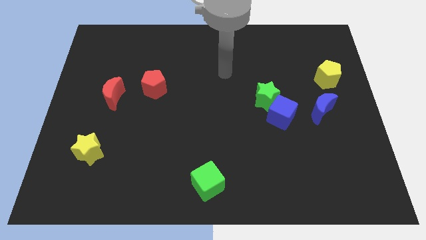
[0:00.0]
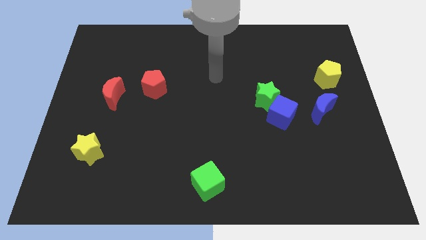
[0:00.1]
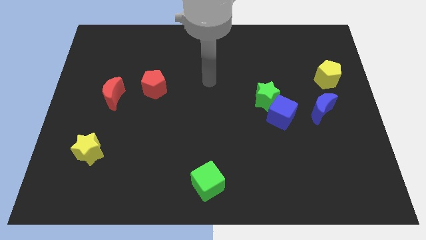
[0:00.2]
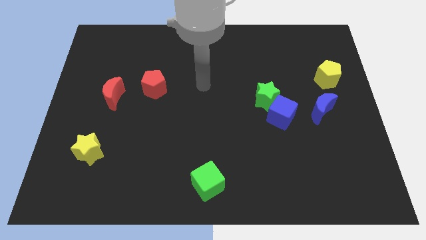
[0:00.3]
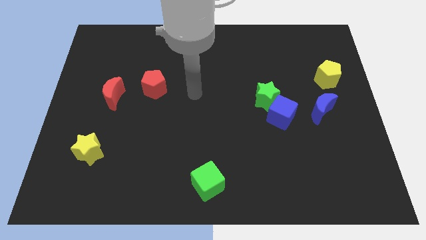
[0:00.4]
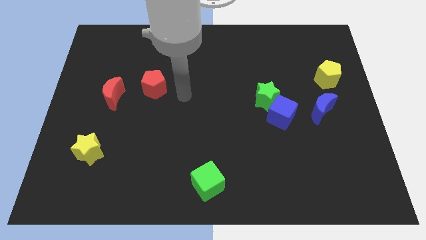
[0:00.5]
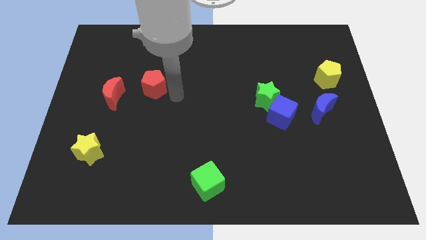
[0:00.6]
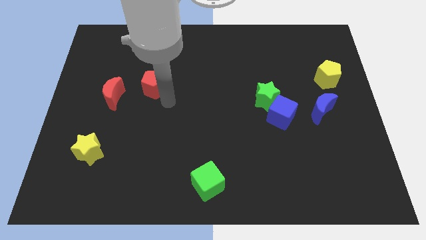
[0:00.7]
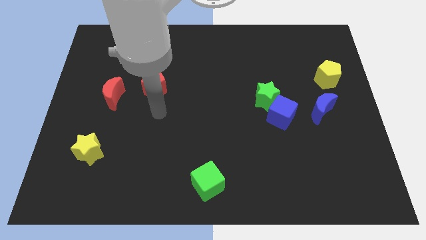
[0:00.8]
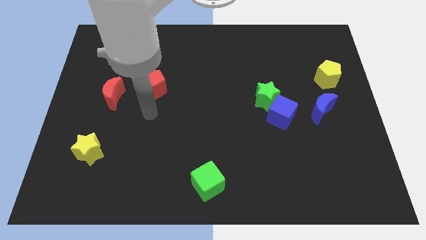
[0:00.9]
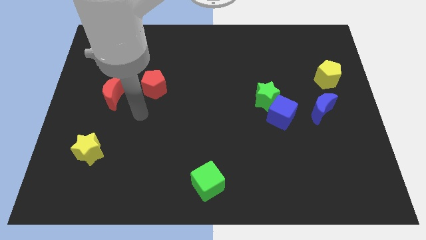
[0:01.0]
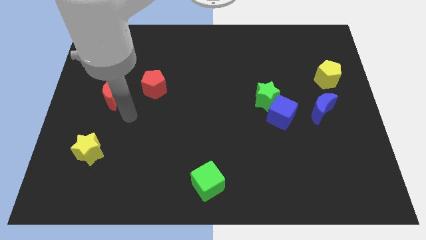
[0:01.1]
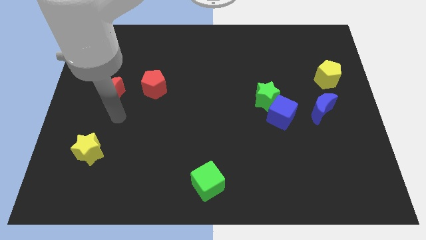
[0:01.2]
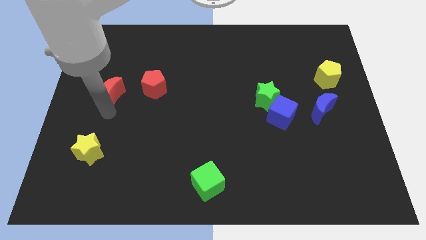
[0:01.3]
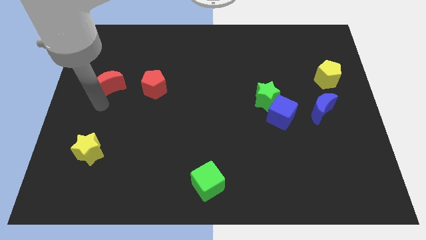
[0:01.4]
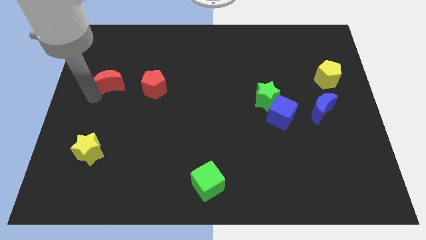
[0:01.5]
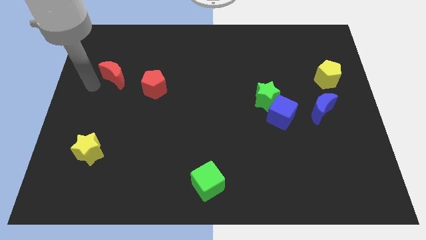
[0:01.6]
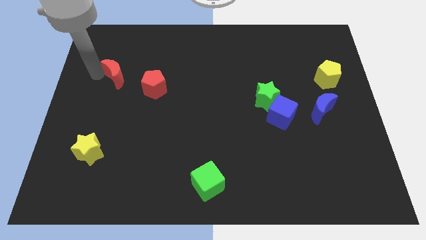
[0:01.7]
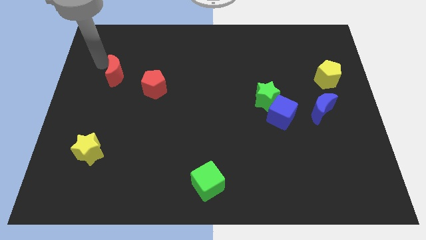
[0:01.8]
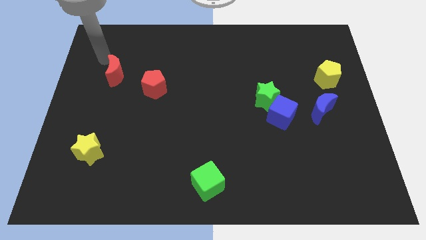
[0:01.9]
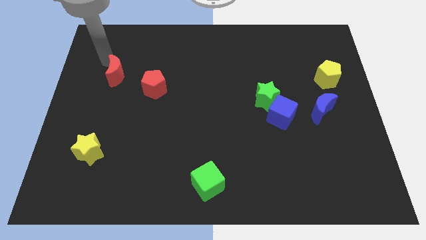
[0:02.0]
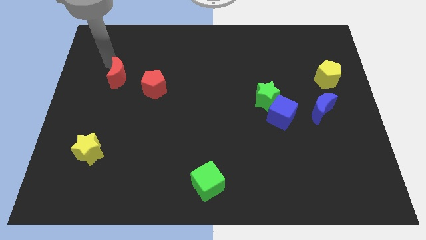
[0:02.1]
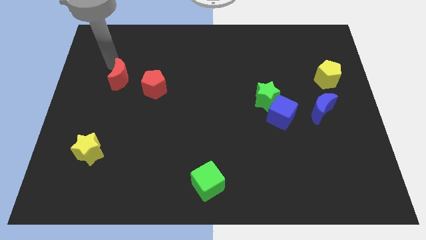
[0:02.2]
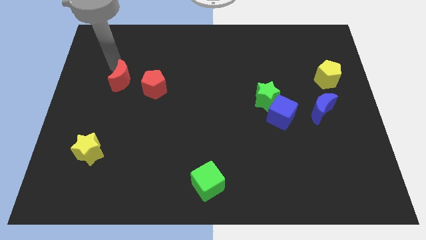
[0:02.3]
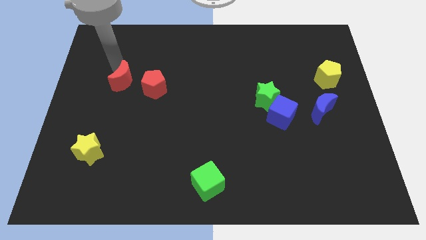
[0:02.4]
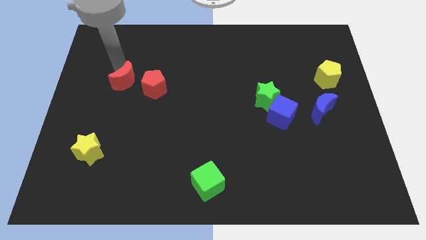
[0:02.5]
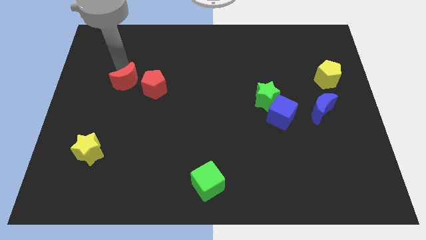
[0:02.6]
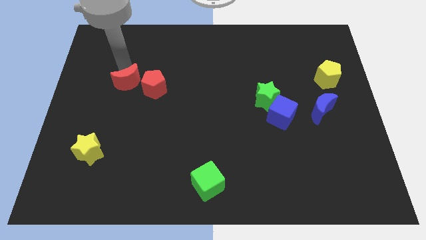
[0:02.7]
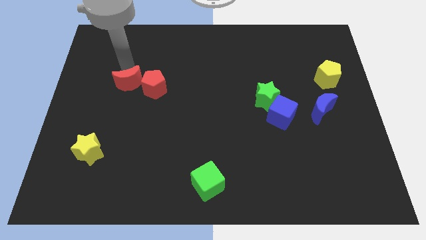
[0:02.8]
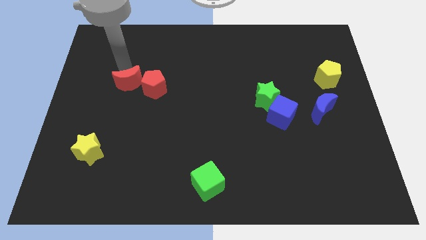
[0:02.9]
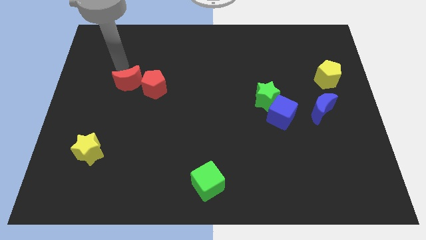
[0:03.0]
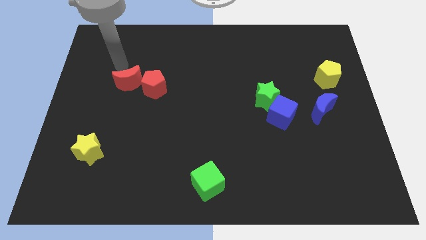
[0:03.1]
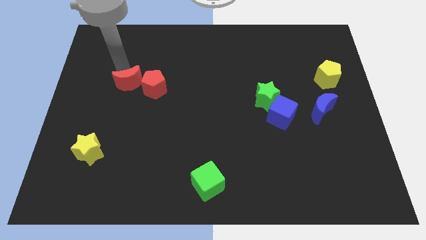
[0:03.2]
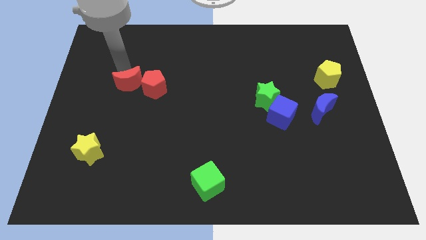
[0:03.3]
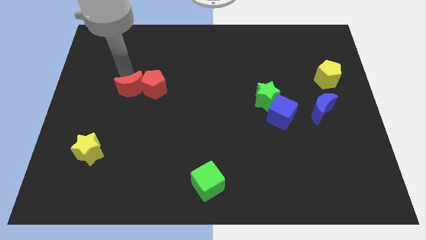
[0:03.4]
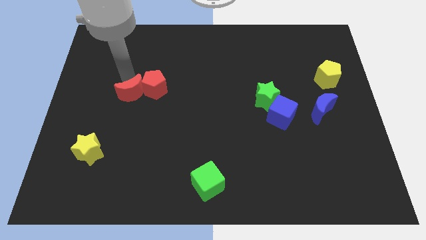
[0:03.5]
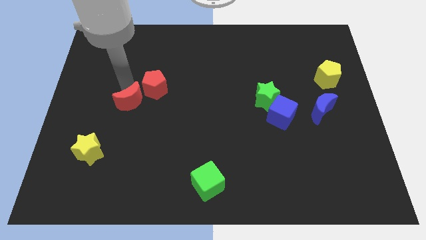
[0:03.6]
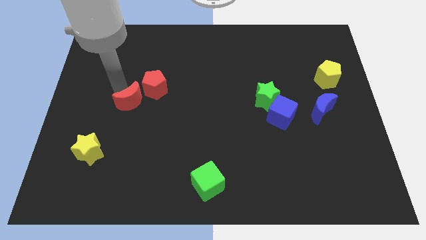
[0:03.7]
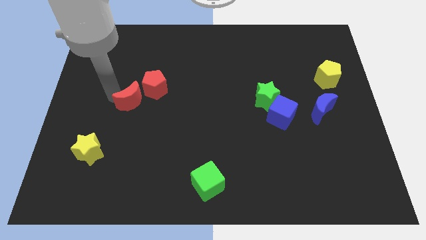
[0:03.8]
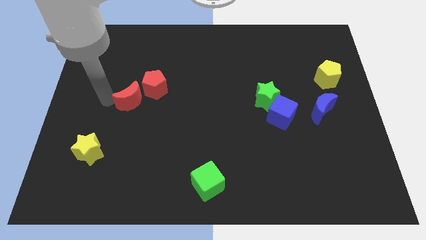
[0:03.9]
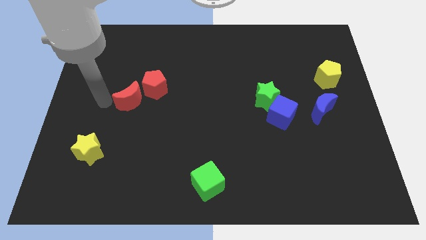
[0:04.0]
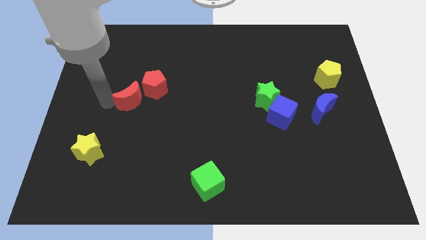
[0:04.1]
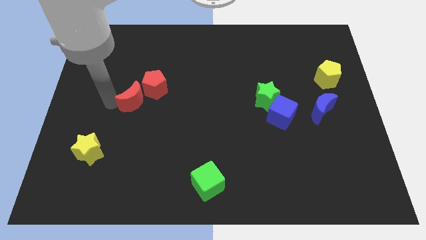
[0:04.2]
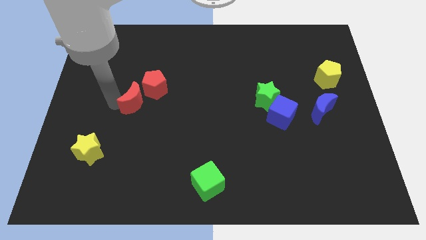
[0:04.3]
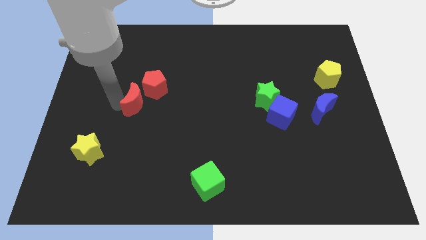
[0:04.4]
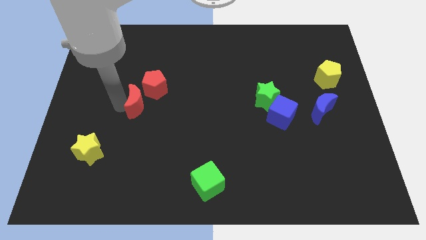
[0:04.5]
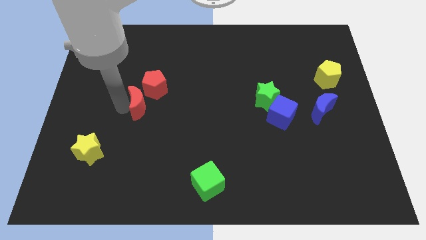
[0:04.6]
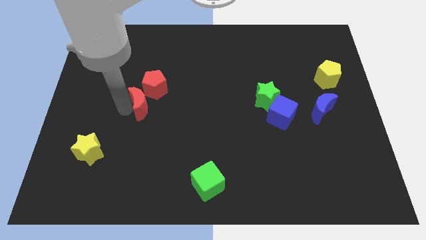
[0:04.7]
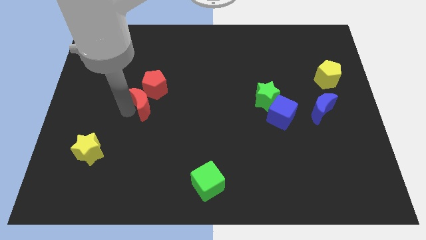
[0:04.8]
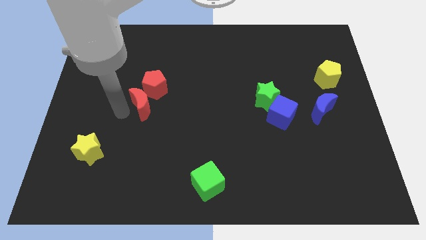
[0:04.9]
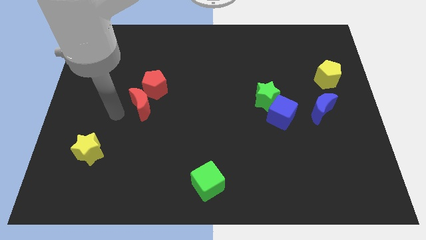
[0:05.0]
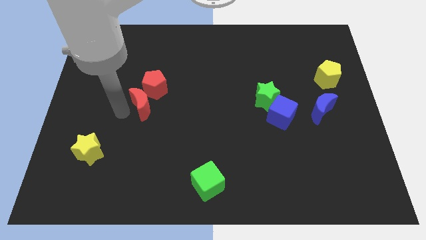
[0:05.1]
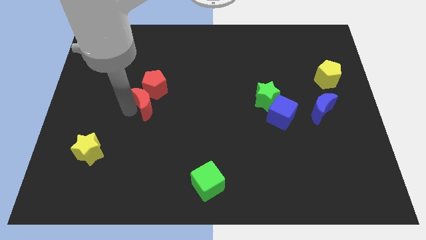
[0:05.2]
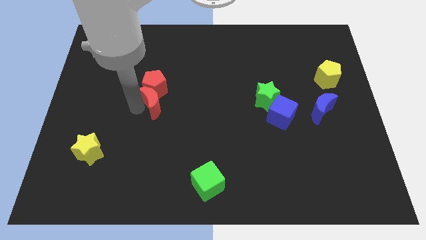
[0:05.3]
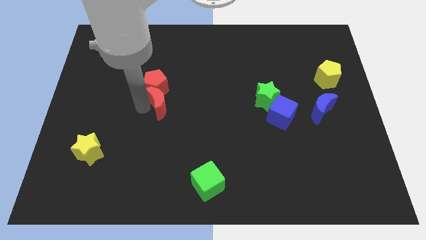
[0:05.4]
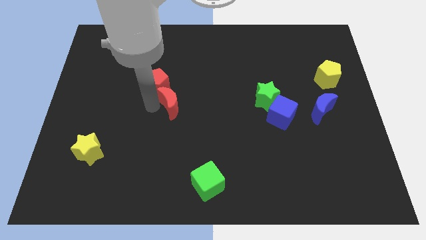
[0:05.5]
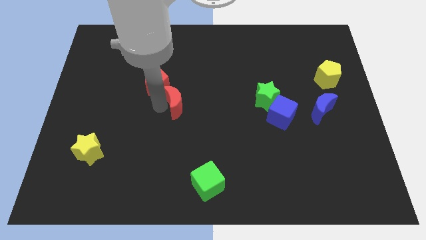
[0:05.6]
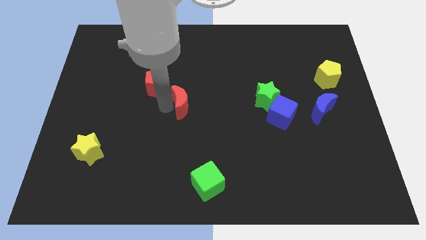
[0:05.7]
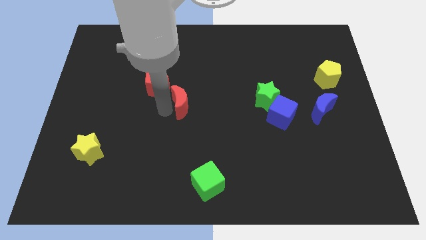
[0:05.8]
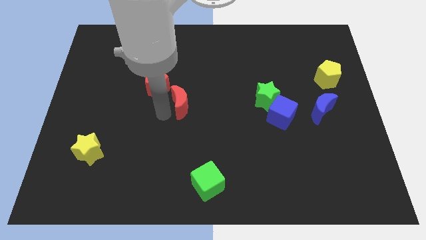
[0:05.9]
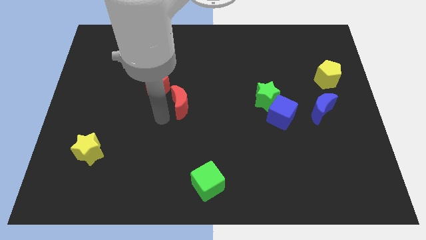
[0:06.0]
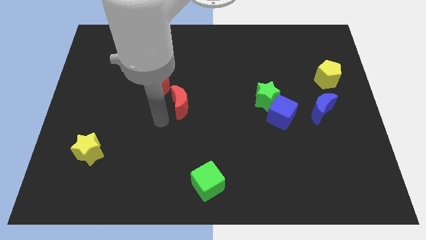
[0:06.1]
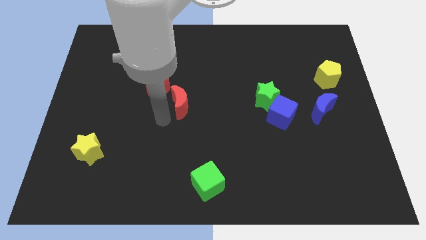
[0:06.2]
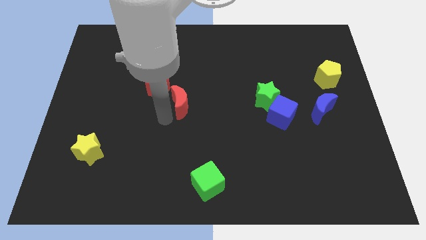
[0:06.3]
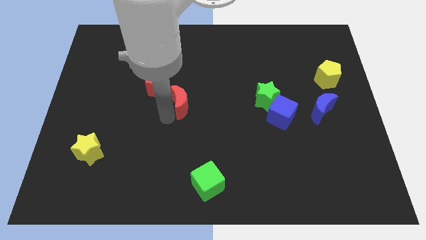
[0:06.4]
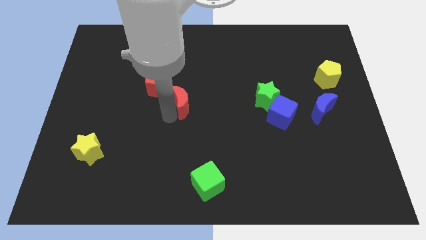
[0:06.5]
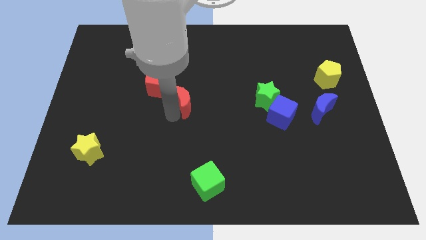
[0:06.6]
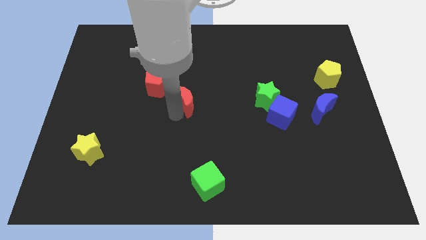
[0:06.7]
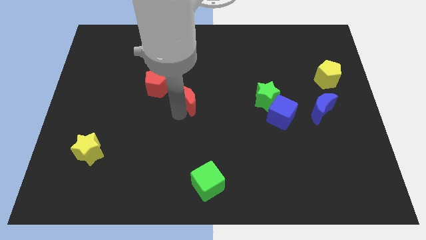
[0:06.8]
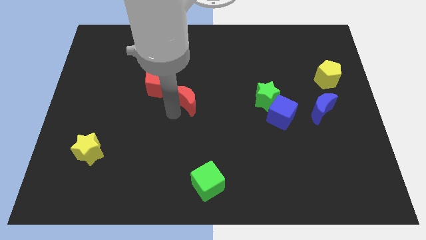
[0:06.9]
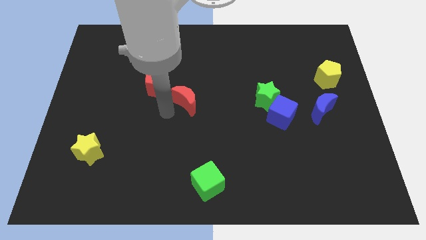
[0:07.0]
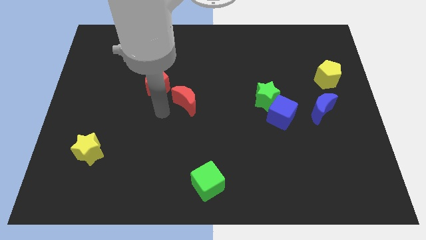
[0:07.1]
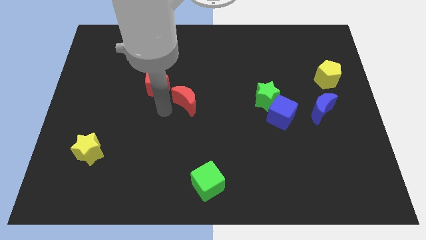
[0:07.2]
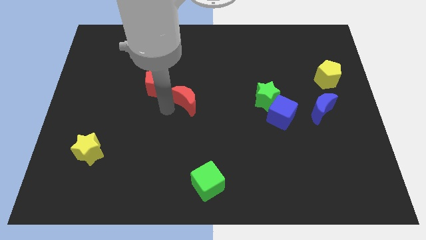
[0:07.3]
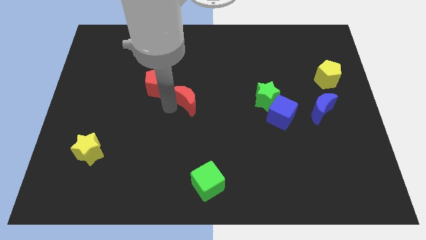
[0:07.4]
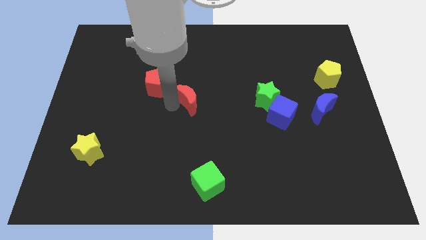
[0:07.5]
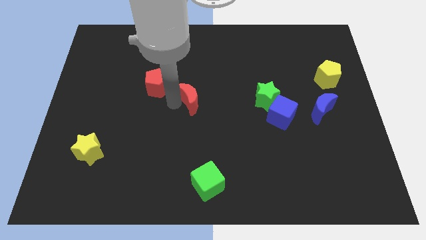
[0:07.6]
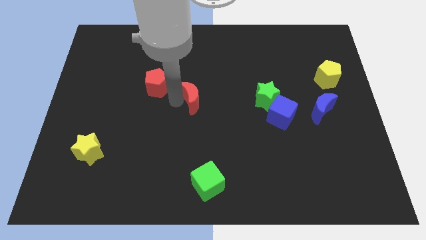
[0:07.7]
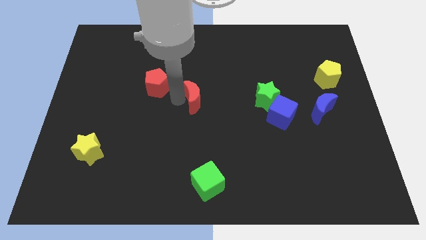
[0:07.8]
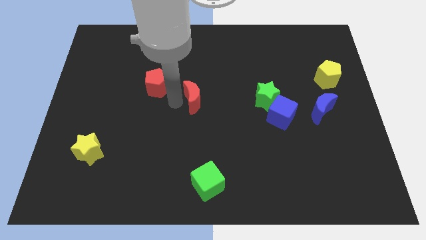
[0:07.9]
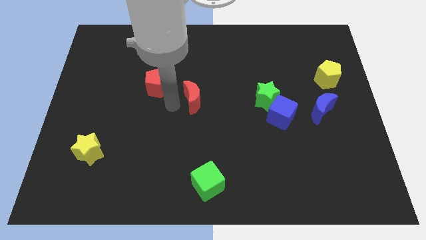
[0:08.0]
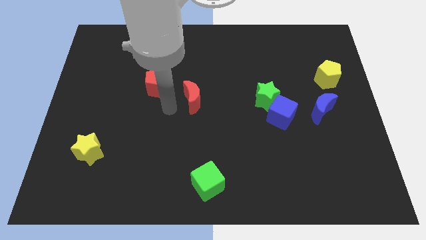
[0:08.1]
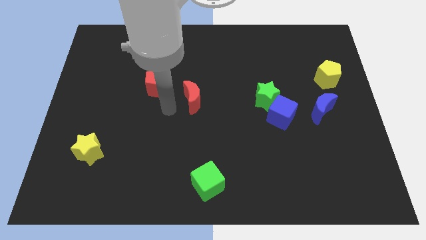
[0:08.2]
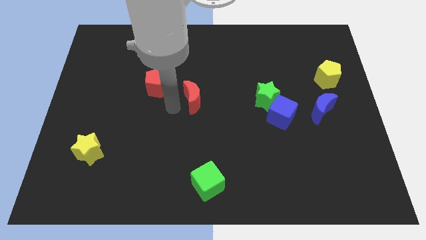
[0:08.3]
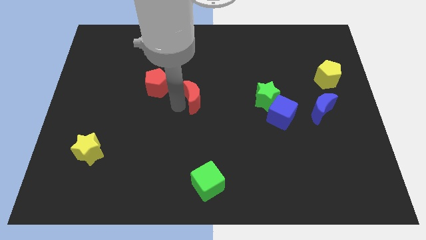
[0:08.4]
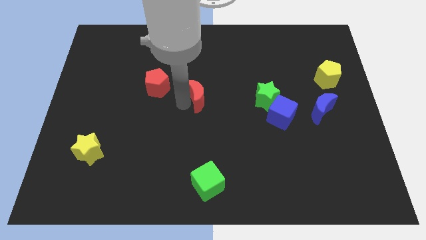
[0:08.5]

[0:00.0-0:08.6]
push the red moon to the right

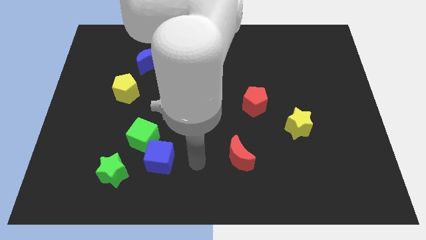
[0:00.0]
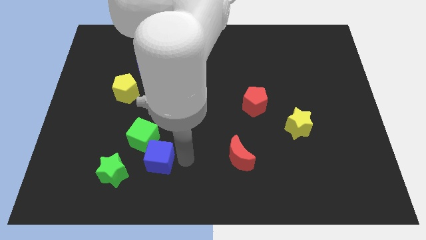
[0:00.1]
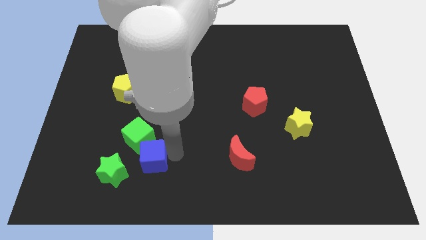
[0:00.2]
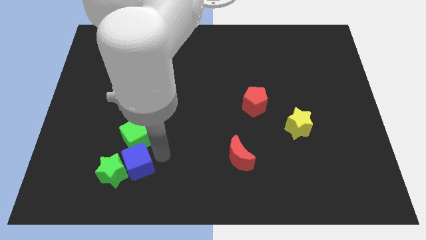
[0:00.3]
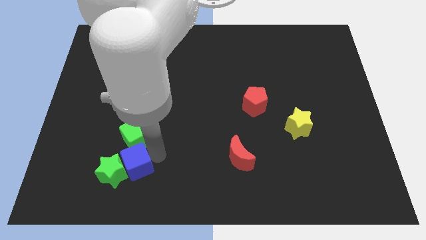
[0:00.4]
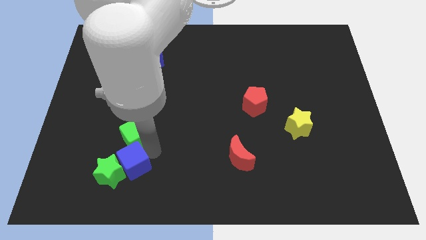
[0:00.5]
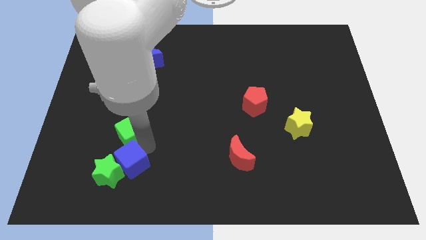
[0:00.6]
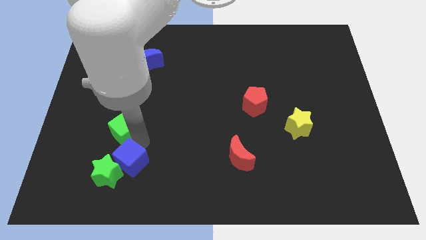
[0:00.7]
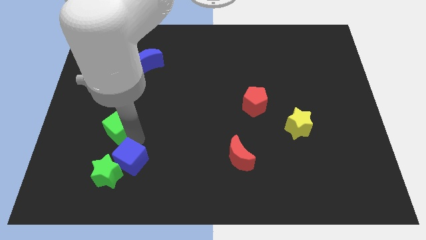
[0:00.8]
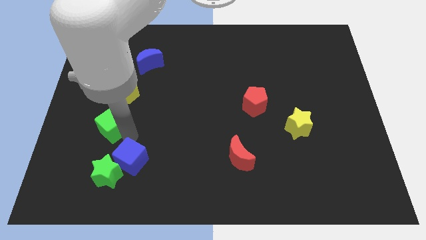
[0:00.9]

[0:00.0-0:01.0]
slightly slide the green cube diagonally upwards and to the left
